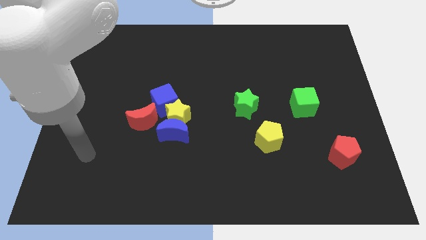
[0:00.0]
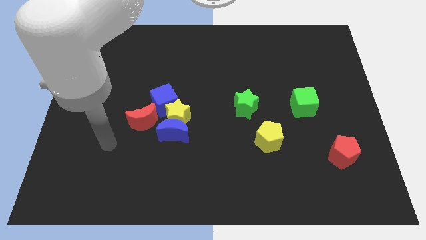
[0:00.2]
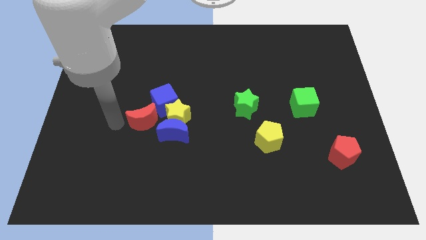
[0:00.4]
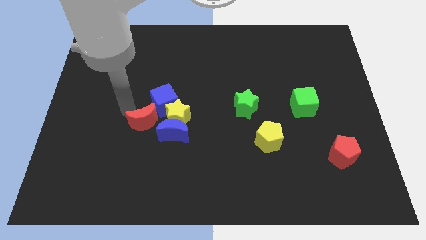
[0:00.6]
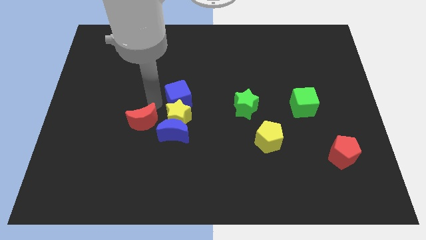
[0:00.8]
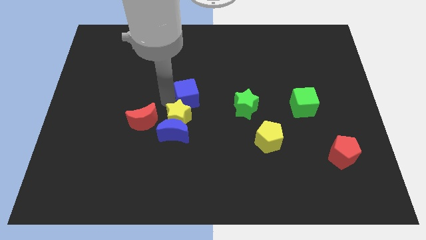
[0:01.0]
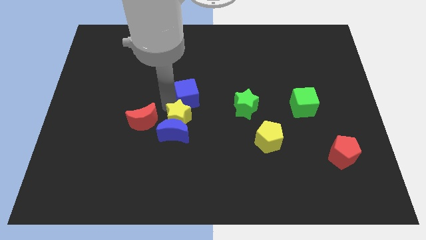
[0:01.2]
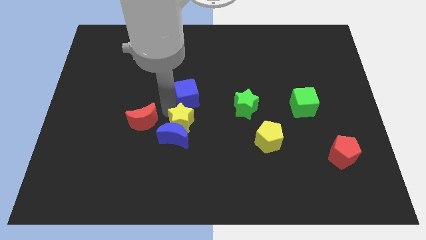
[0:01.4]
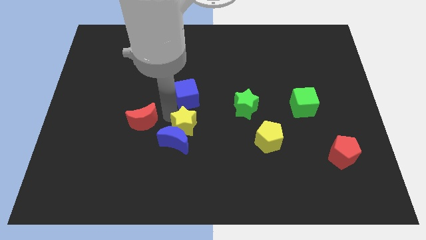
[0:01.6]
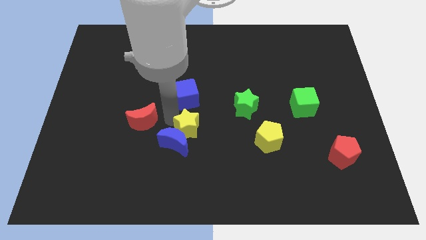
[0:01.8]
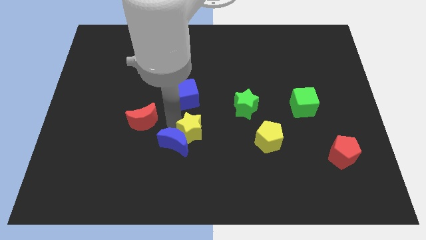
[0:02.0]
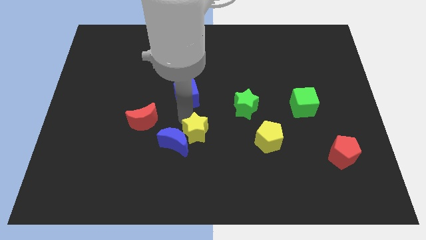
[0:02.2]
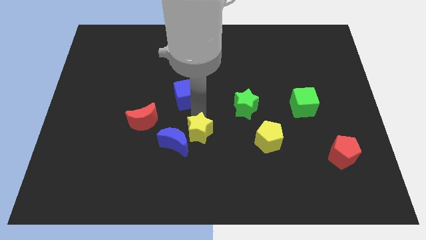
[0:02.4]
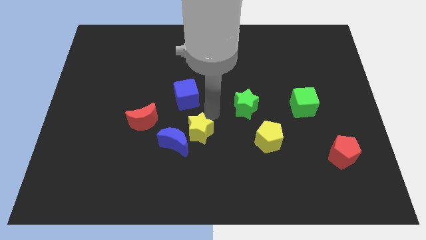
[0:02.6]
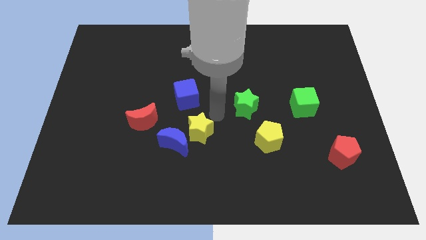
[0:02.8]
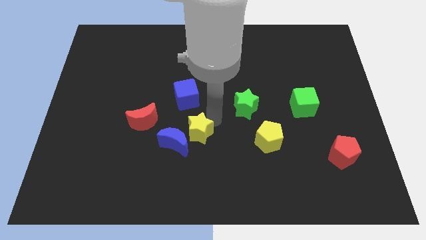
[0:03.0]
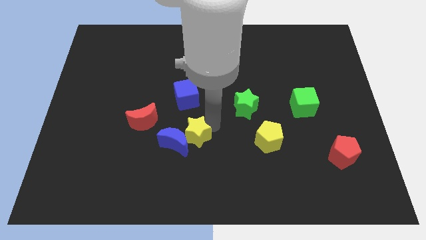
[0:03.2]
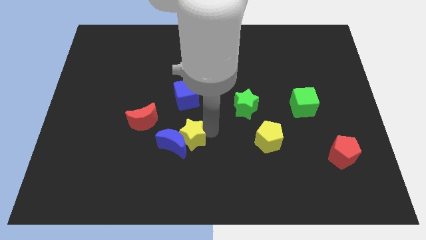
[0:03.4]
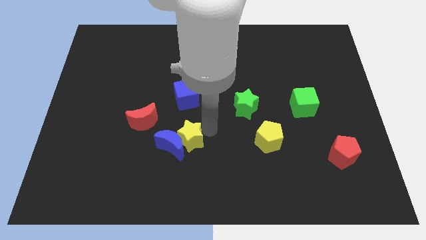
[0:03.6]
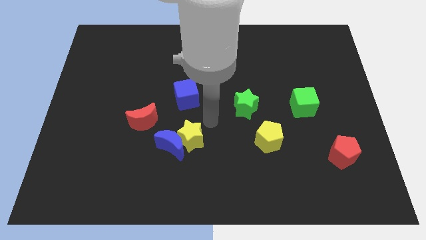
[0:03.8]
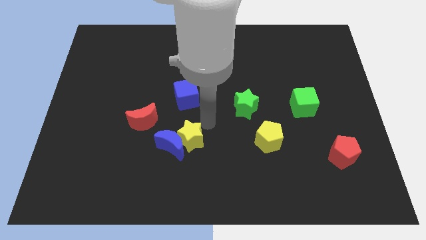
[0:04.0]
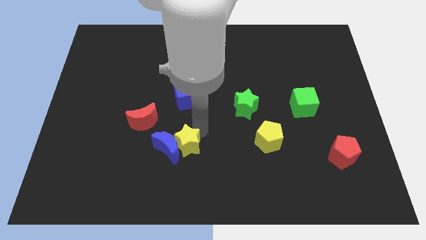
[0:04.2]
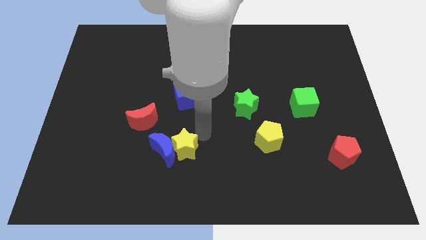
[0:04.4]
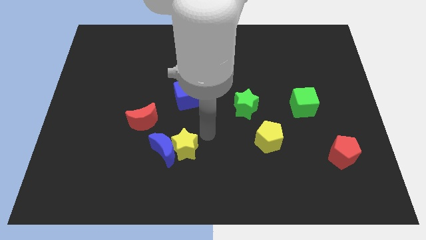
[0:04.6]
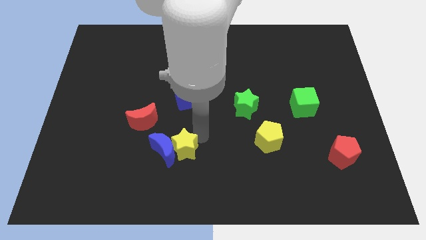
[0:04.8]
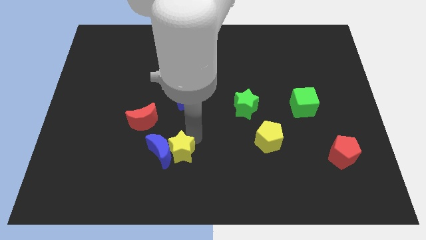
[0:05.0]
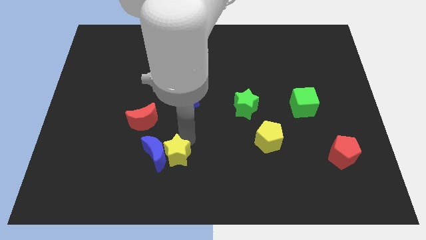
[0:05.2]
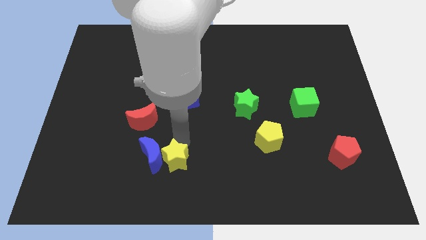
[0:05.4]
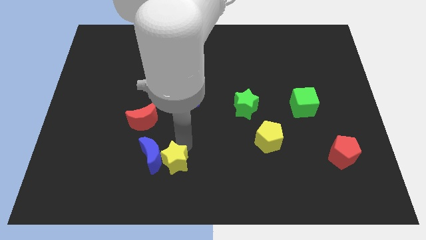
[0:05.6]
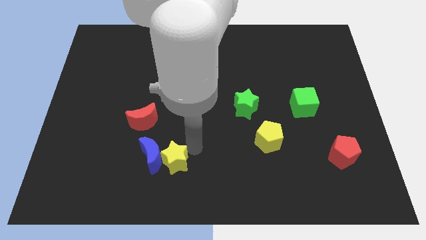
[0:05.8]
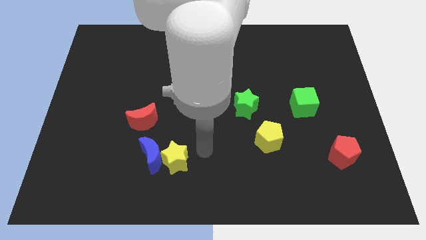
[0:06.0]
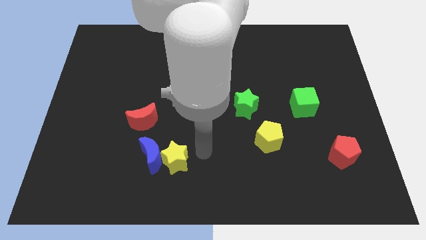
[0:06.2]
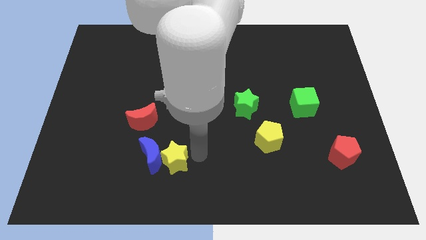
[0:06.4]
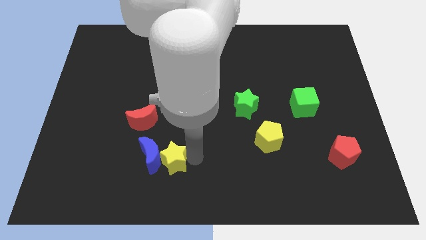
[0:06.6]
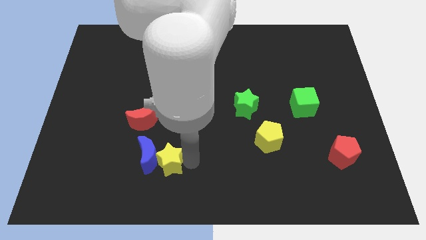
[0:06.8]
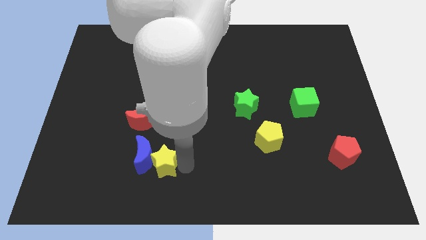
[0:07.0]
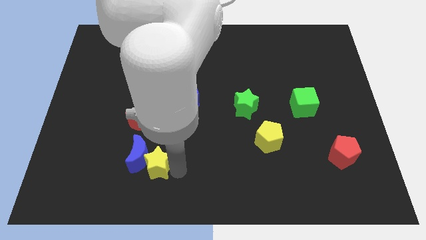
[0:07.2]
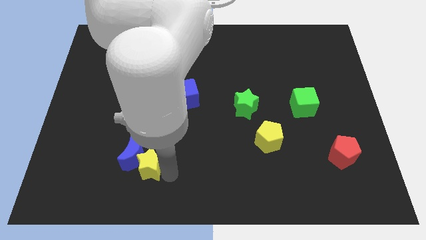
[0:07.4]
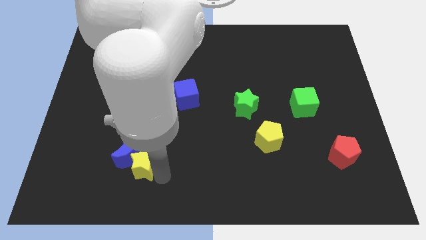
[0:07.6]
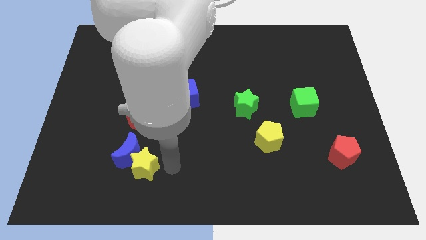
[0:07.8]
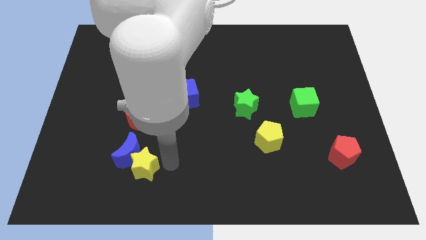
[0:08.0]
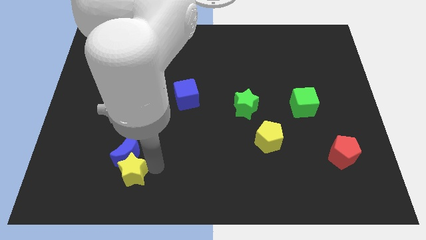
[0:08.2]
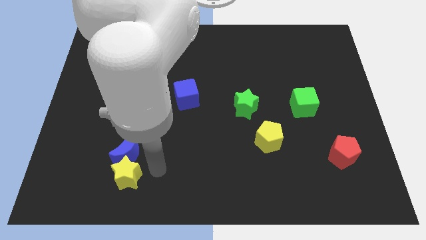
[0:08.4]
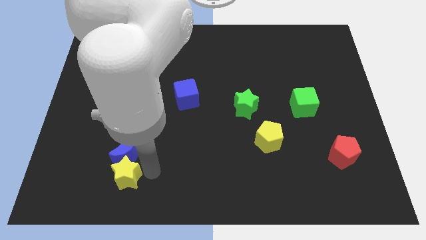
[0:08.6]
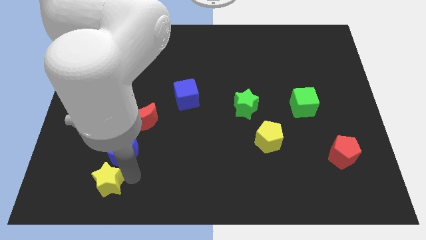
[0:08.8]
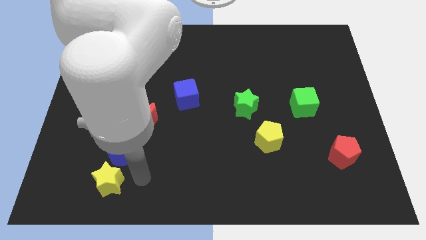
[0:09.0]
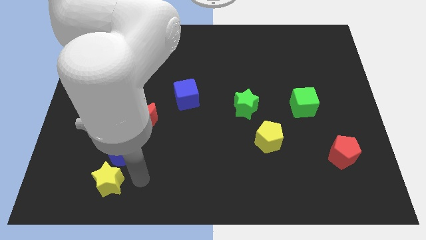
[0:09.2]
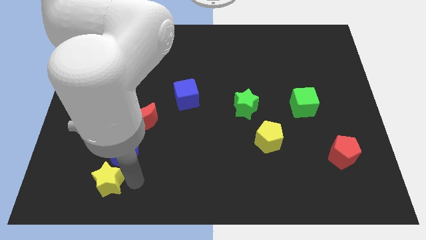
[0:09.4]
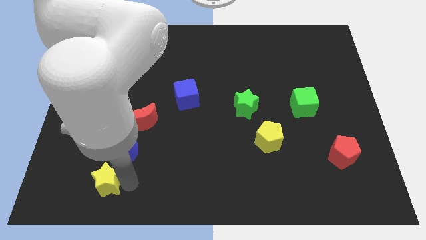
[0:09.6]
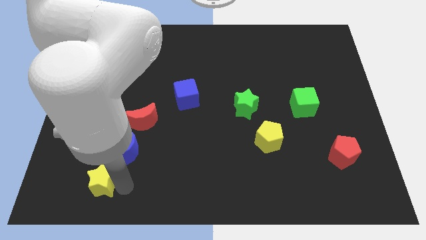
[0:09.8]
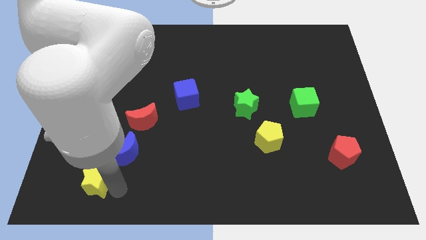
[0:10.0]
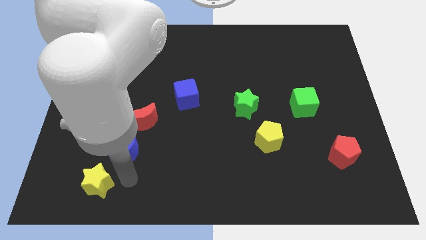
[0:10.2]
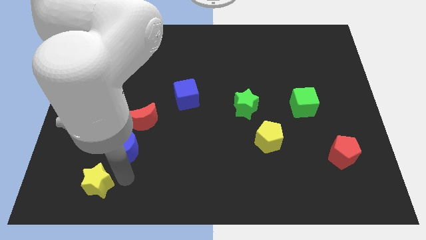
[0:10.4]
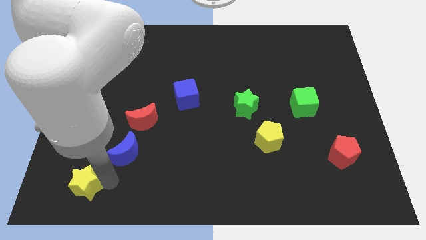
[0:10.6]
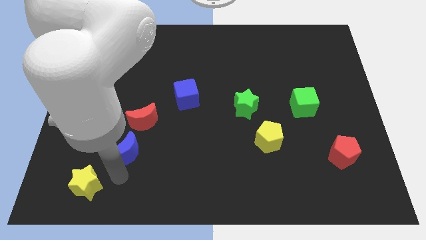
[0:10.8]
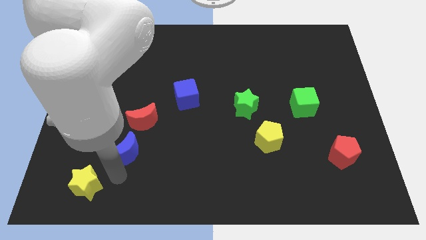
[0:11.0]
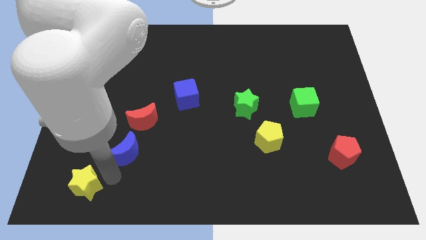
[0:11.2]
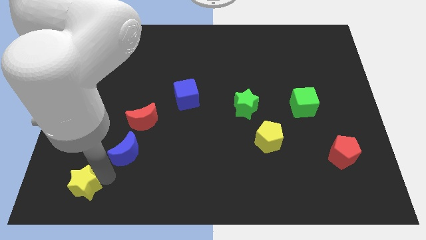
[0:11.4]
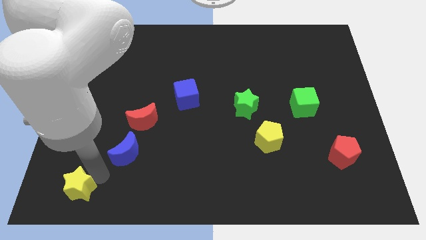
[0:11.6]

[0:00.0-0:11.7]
move the yellow star to the lower left corner

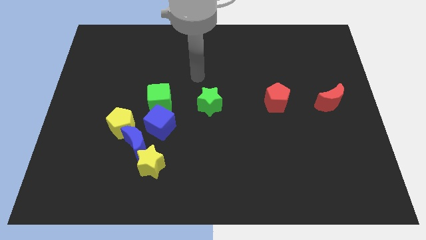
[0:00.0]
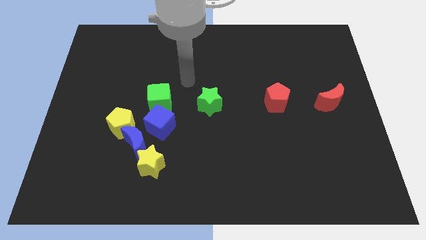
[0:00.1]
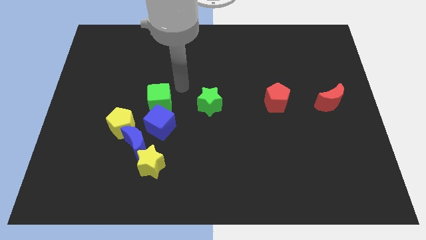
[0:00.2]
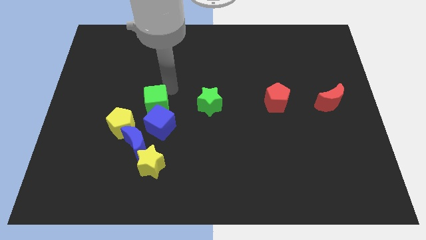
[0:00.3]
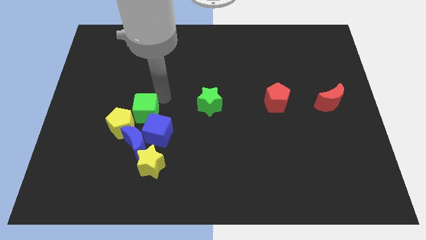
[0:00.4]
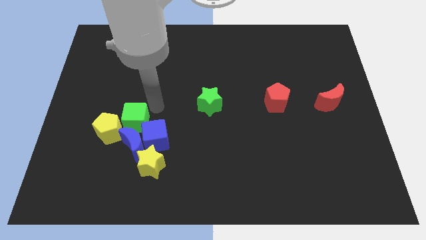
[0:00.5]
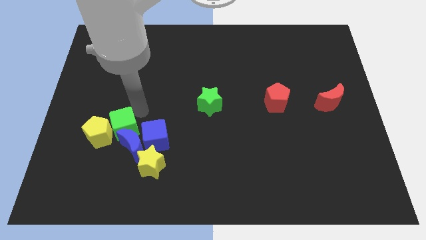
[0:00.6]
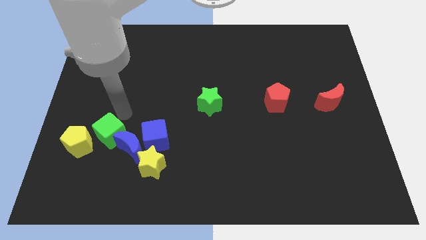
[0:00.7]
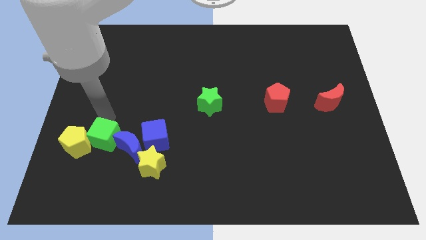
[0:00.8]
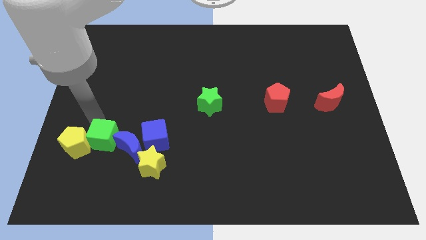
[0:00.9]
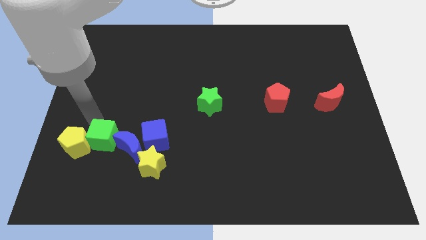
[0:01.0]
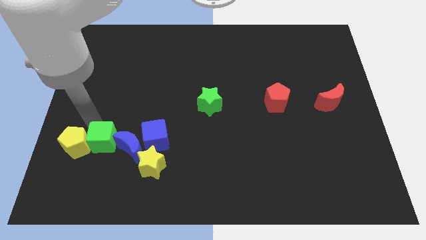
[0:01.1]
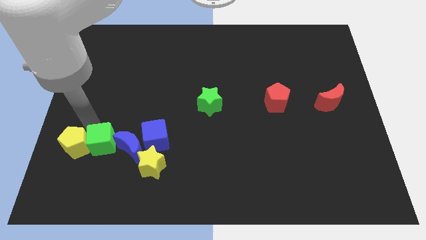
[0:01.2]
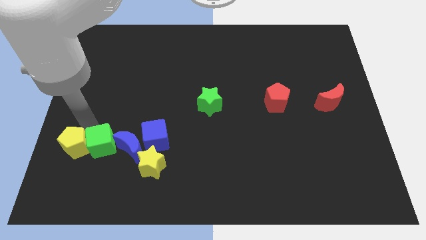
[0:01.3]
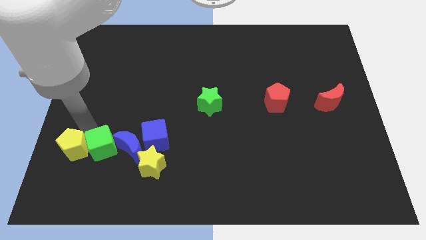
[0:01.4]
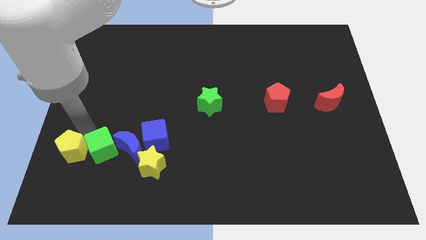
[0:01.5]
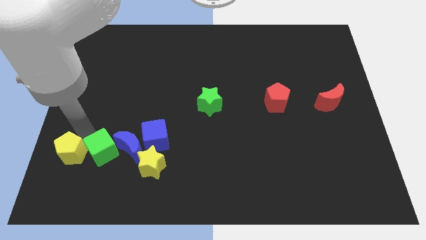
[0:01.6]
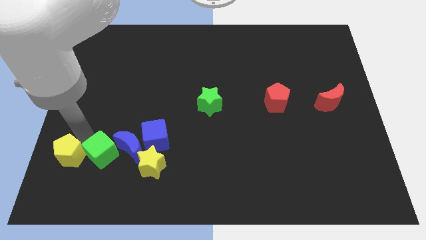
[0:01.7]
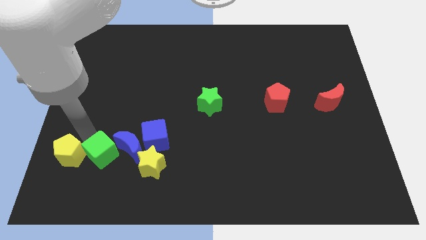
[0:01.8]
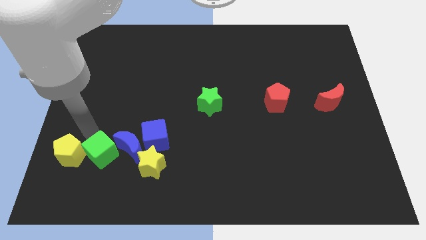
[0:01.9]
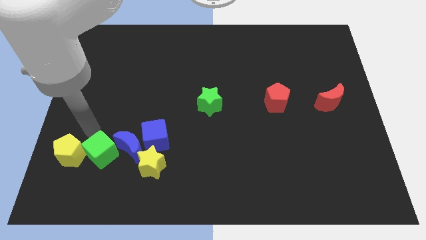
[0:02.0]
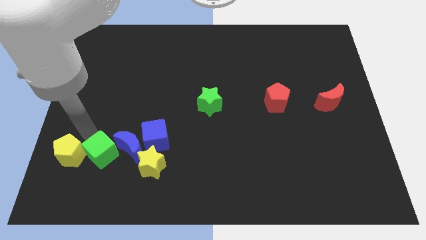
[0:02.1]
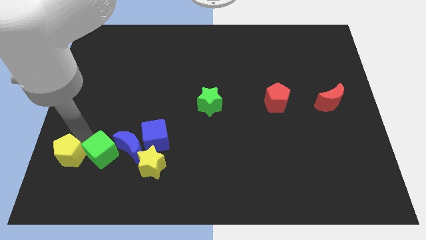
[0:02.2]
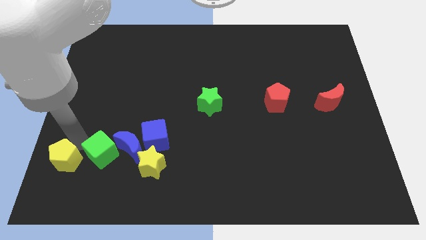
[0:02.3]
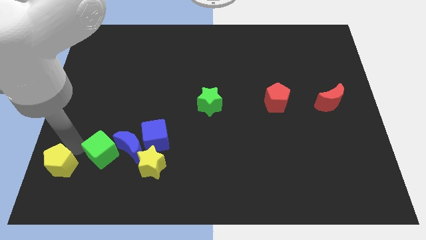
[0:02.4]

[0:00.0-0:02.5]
move the yellow pentagon to the bottom left of the board
